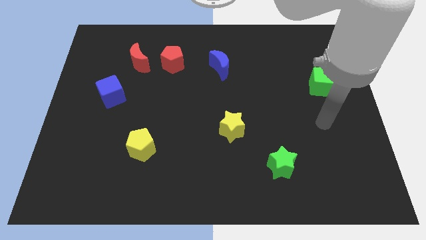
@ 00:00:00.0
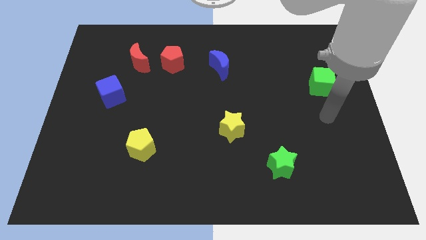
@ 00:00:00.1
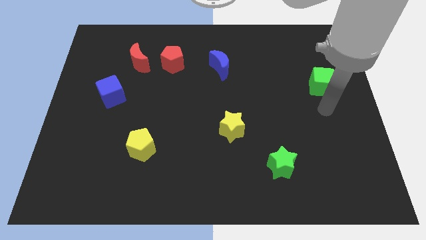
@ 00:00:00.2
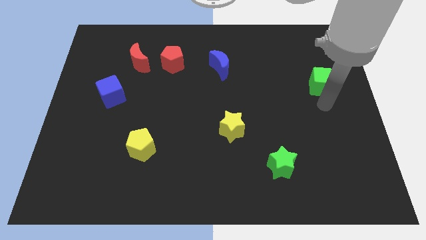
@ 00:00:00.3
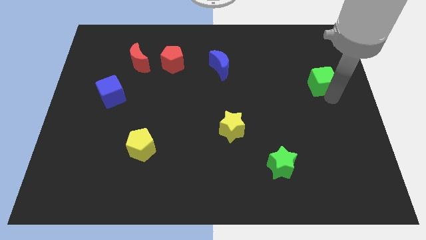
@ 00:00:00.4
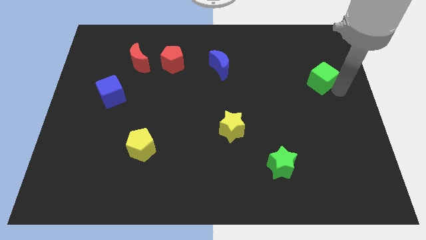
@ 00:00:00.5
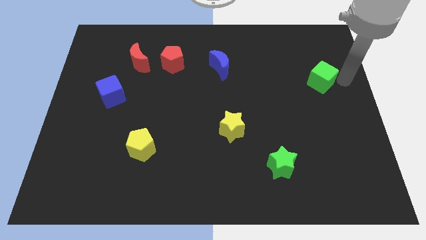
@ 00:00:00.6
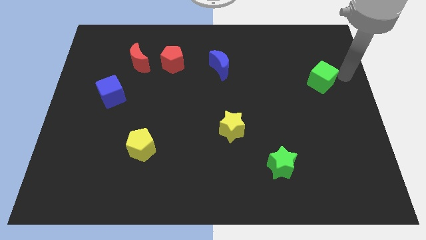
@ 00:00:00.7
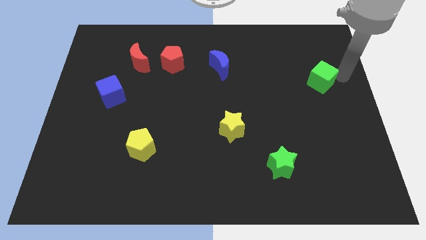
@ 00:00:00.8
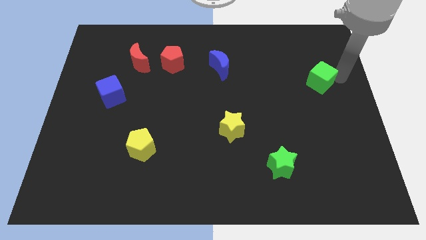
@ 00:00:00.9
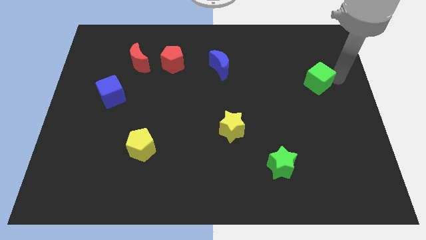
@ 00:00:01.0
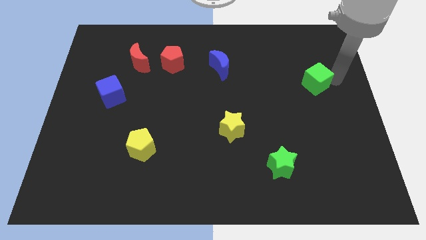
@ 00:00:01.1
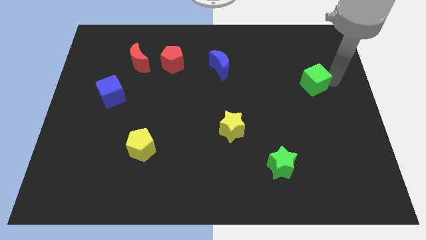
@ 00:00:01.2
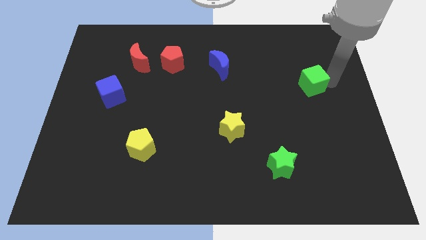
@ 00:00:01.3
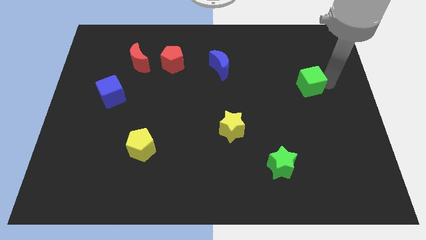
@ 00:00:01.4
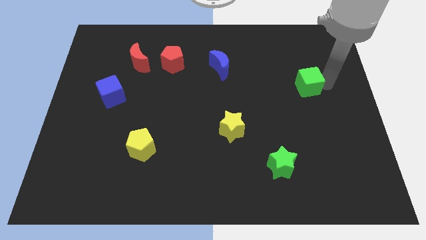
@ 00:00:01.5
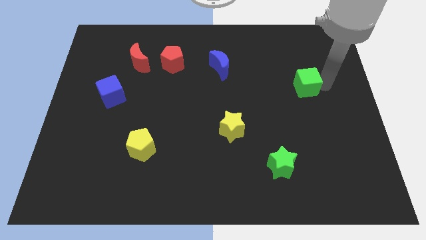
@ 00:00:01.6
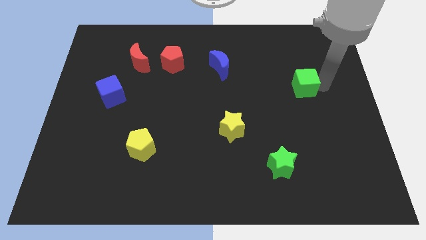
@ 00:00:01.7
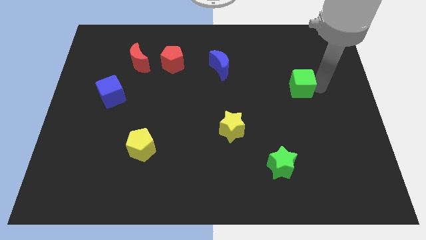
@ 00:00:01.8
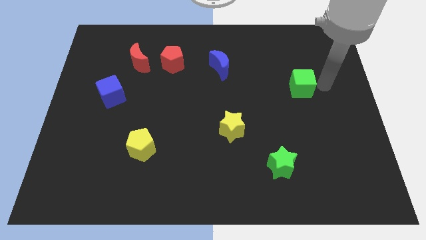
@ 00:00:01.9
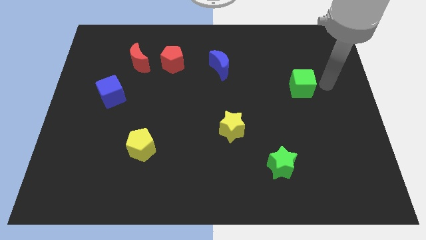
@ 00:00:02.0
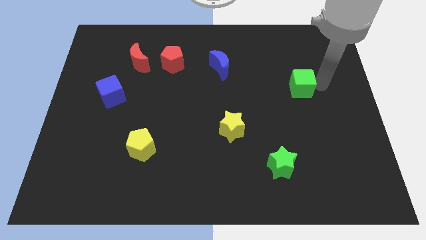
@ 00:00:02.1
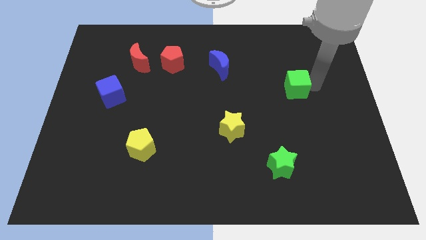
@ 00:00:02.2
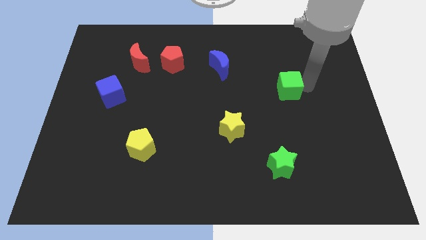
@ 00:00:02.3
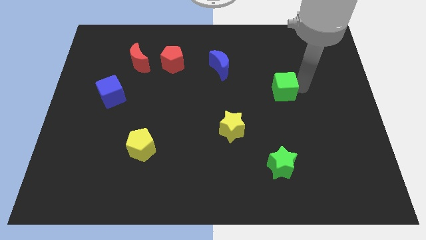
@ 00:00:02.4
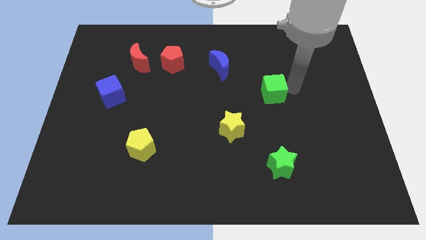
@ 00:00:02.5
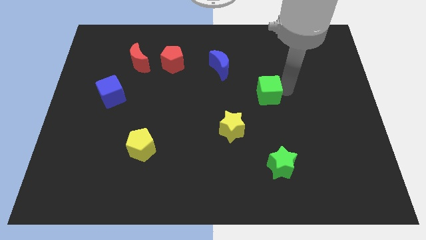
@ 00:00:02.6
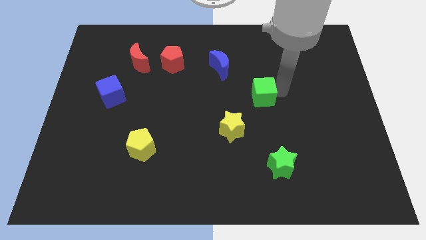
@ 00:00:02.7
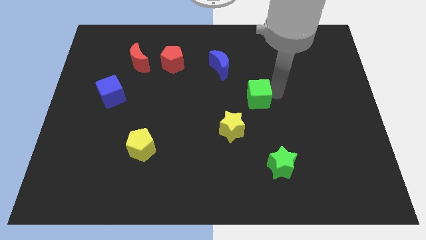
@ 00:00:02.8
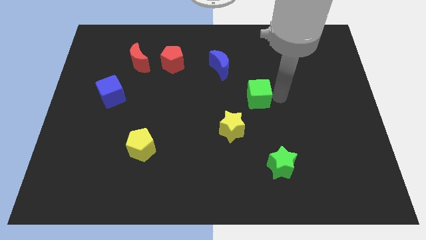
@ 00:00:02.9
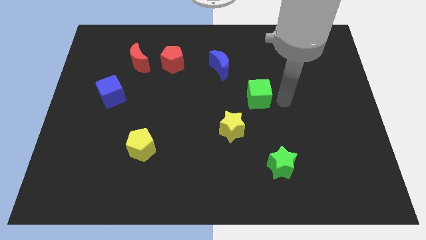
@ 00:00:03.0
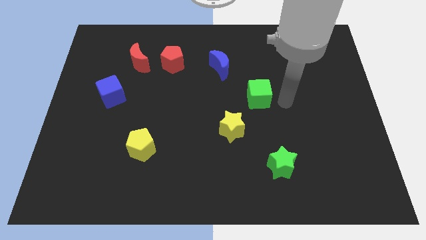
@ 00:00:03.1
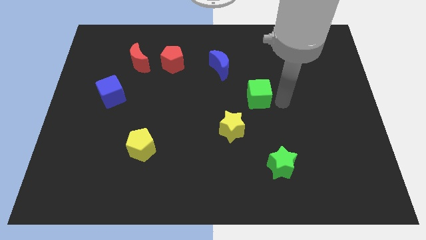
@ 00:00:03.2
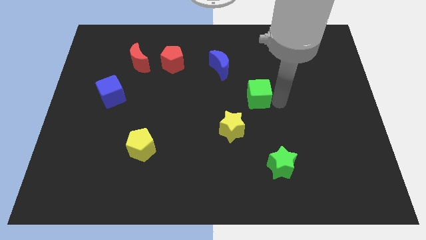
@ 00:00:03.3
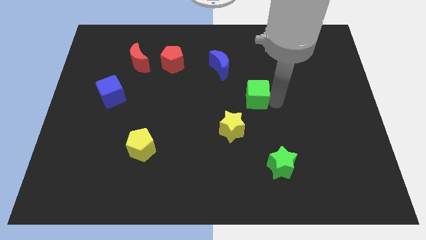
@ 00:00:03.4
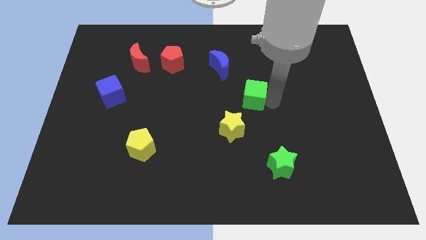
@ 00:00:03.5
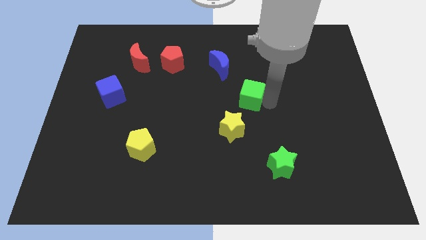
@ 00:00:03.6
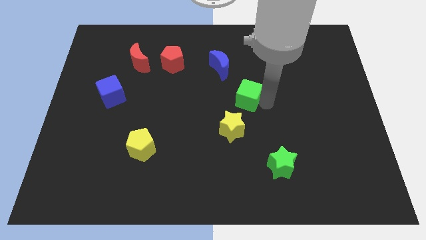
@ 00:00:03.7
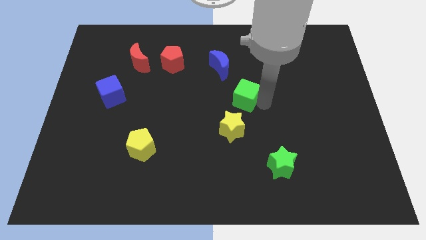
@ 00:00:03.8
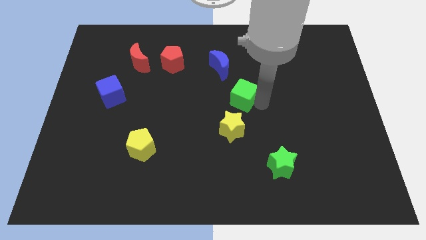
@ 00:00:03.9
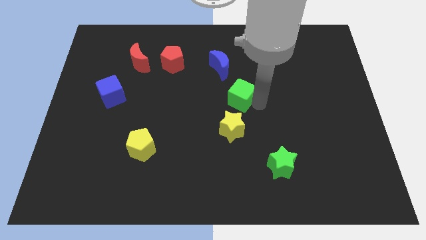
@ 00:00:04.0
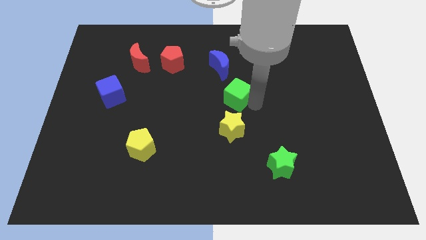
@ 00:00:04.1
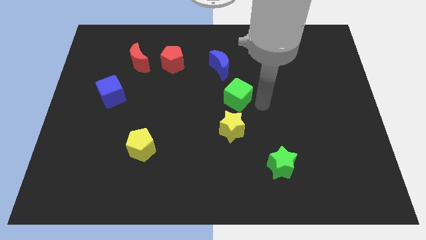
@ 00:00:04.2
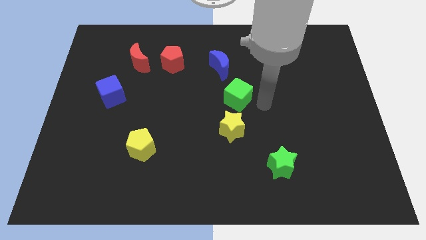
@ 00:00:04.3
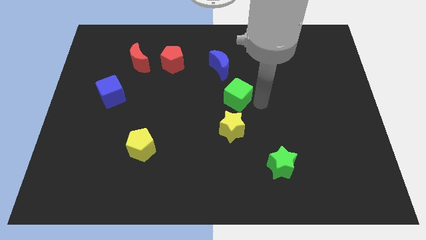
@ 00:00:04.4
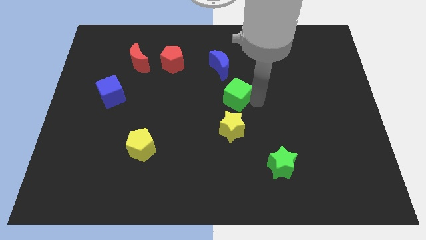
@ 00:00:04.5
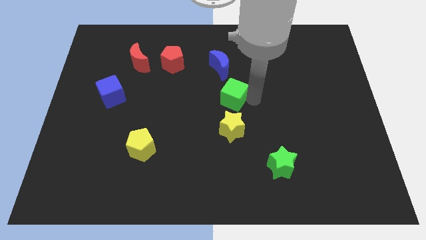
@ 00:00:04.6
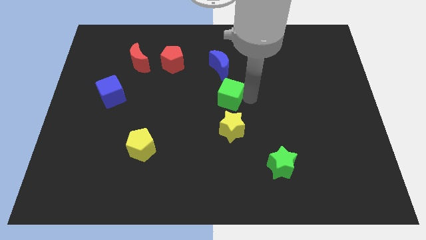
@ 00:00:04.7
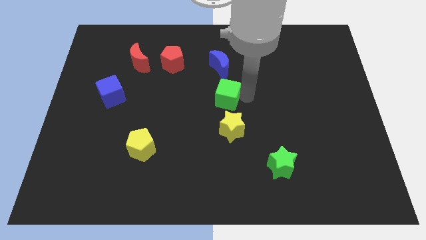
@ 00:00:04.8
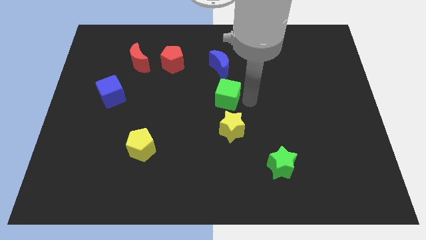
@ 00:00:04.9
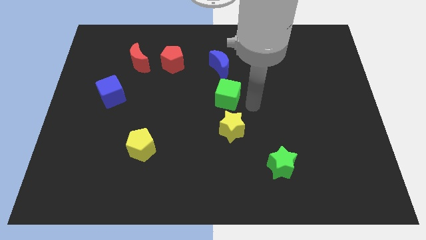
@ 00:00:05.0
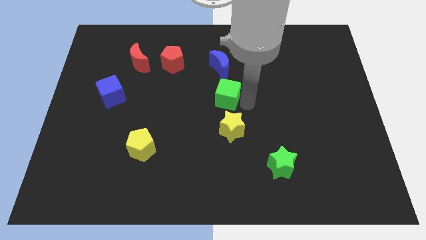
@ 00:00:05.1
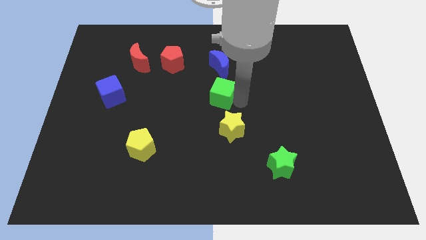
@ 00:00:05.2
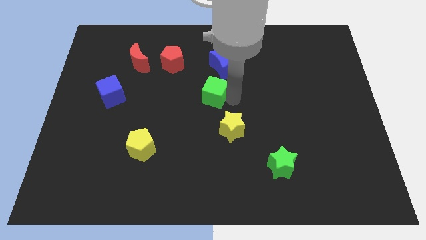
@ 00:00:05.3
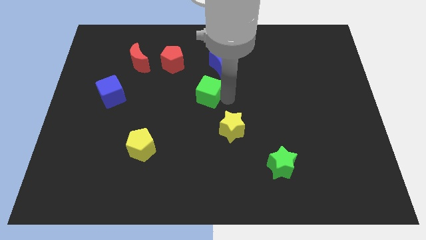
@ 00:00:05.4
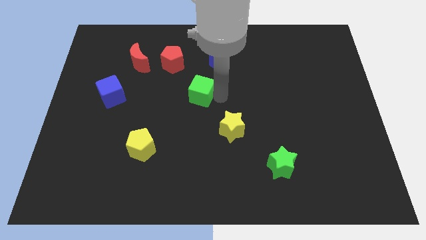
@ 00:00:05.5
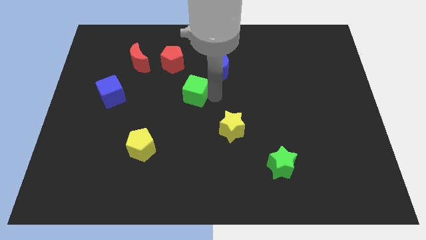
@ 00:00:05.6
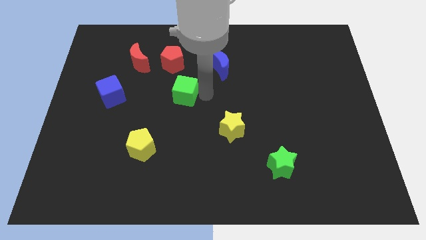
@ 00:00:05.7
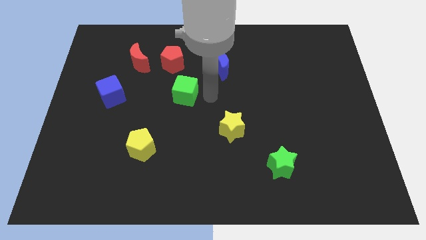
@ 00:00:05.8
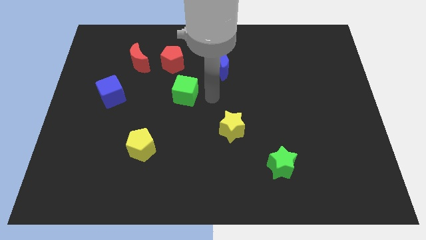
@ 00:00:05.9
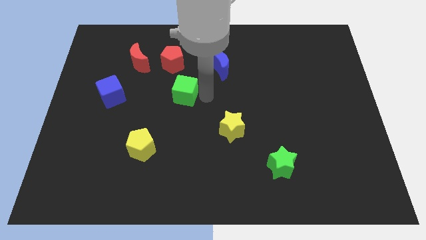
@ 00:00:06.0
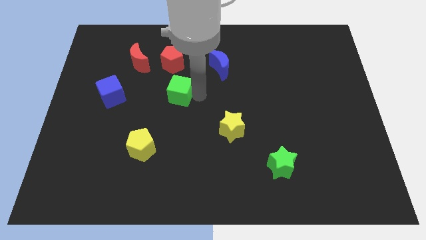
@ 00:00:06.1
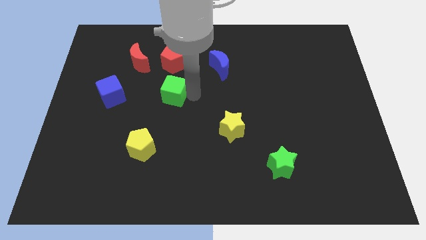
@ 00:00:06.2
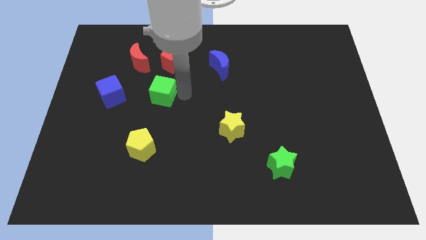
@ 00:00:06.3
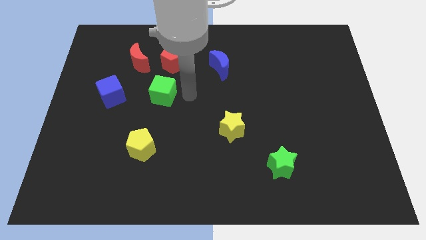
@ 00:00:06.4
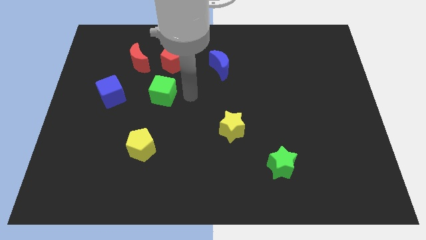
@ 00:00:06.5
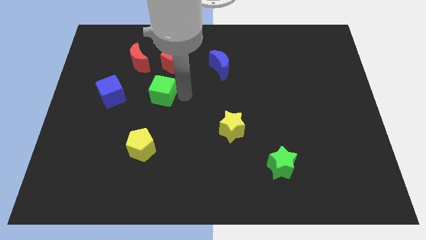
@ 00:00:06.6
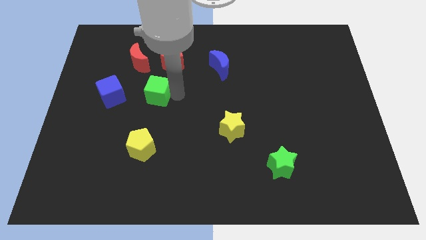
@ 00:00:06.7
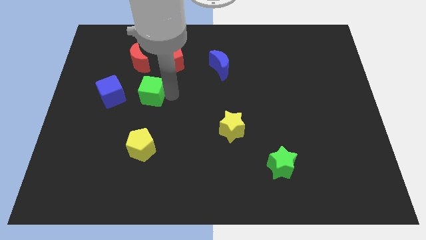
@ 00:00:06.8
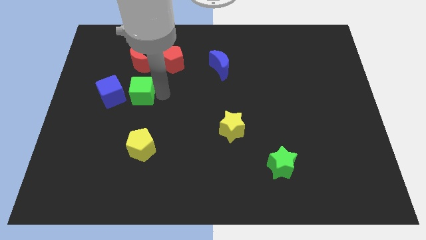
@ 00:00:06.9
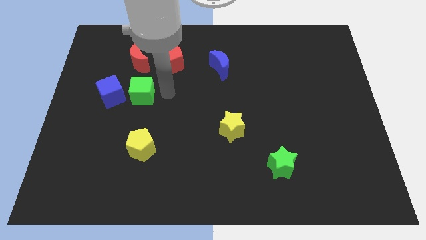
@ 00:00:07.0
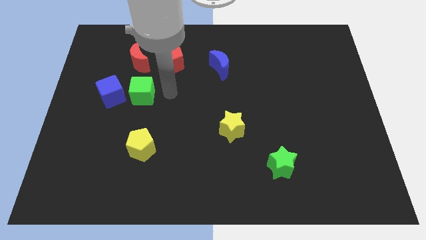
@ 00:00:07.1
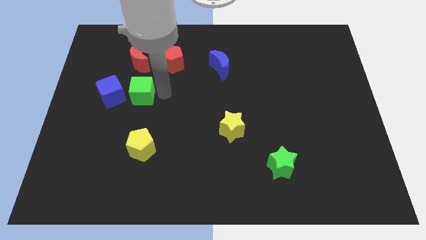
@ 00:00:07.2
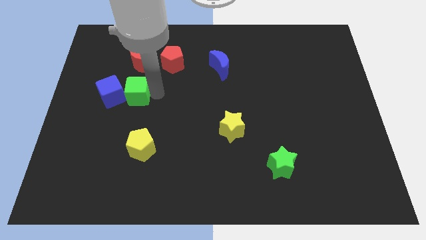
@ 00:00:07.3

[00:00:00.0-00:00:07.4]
slide the green cube to the blue cube
